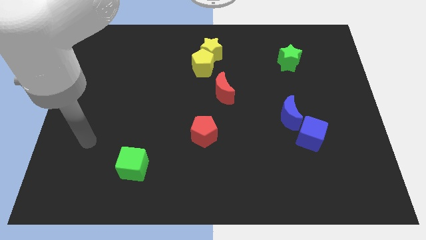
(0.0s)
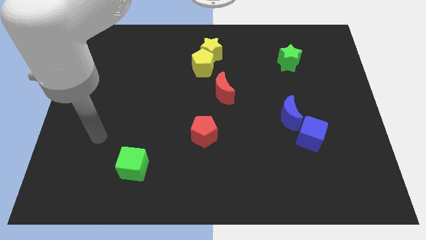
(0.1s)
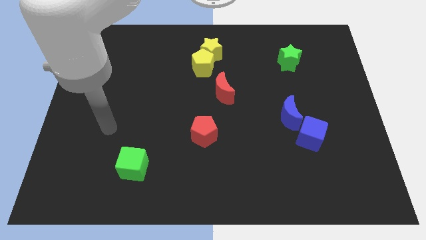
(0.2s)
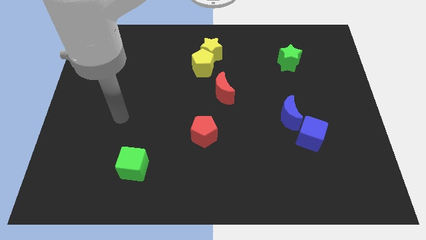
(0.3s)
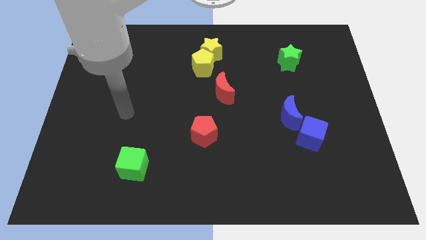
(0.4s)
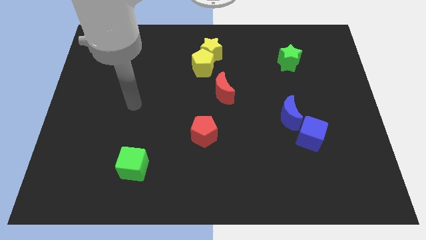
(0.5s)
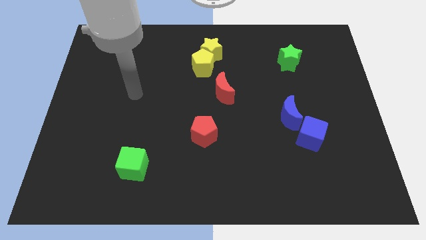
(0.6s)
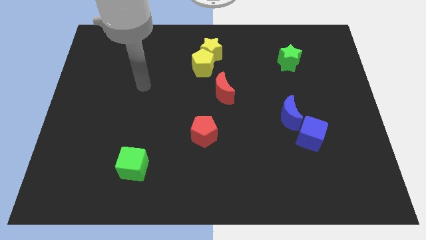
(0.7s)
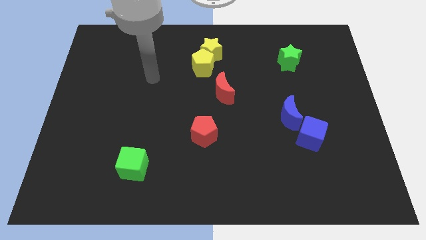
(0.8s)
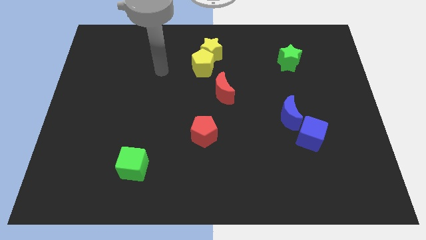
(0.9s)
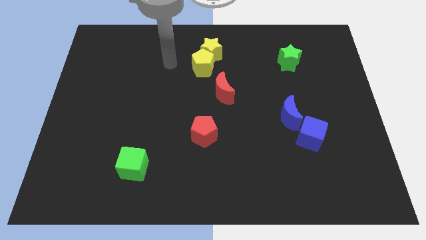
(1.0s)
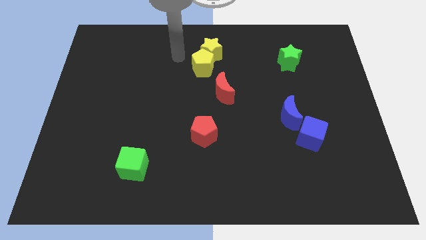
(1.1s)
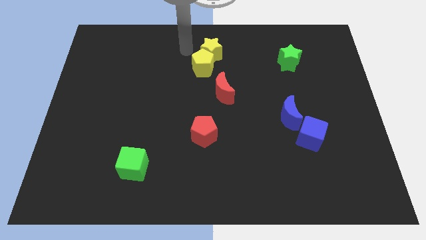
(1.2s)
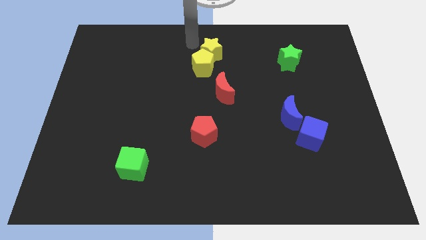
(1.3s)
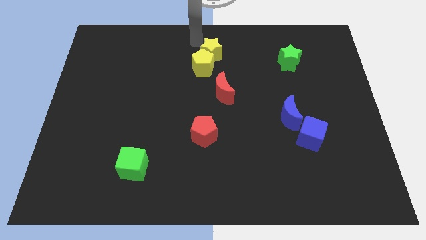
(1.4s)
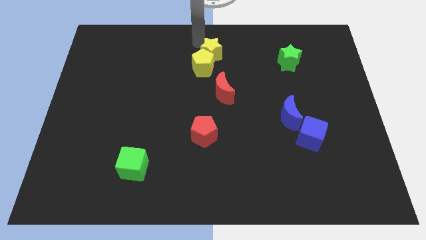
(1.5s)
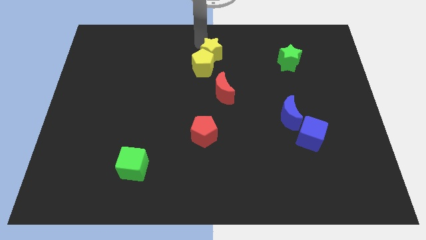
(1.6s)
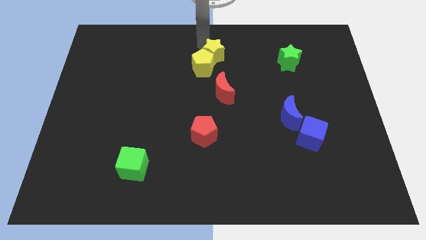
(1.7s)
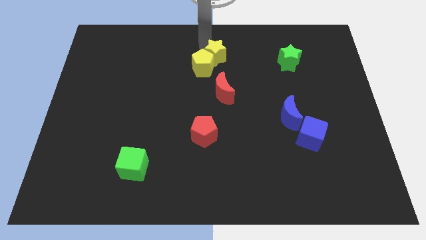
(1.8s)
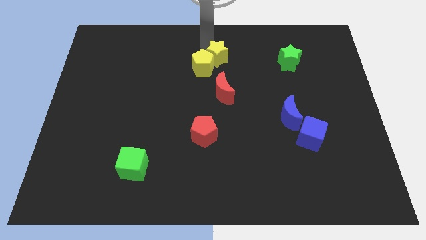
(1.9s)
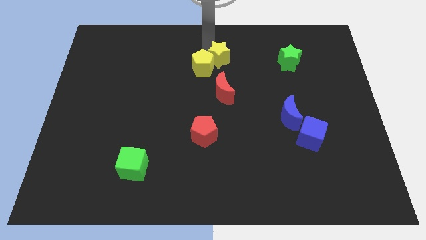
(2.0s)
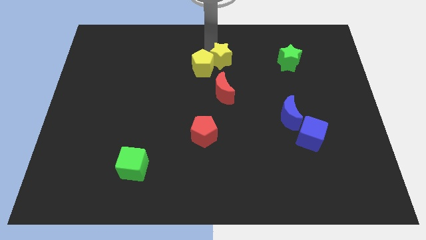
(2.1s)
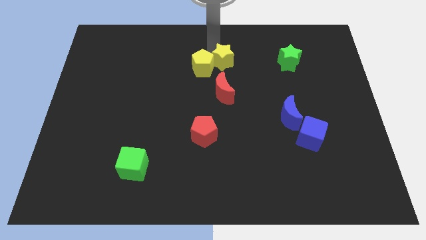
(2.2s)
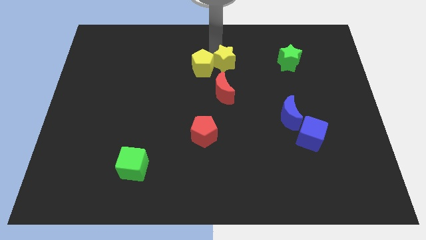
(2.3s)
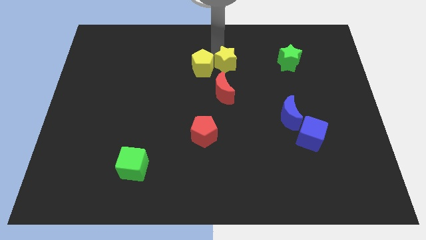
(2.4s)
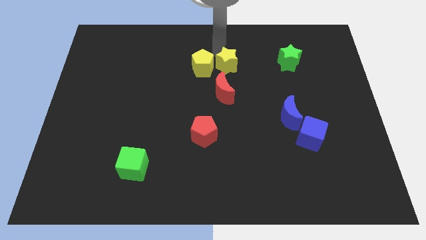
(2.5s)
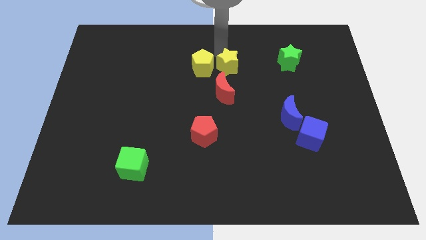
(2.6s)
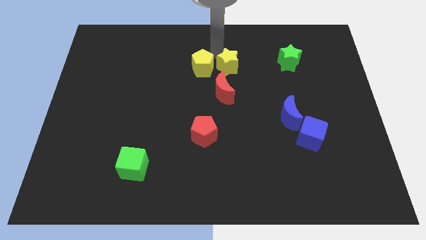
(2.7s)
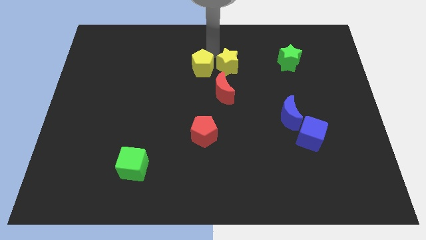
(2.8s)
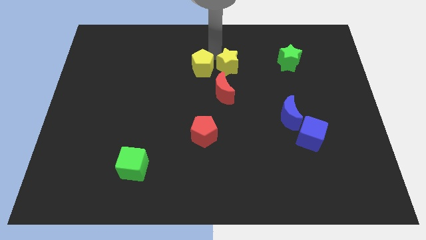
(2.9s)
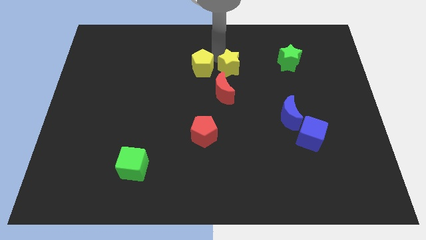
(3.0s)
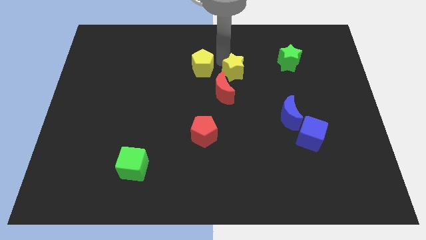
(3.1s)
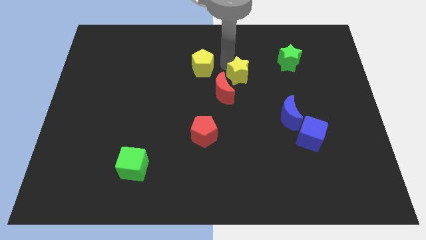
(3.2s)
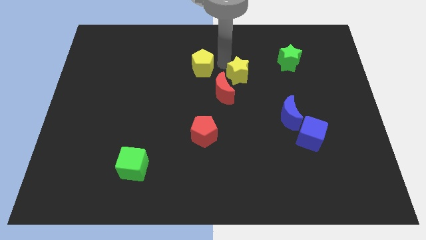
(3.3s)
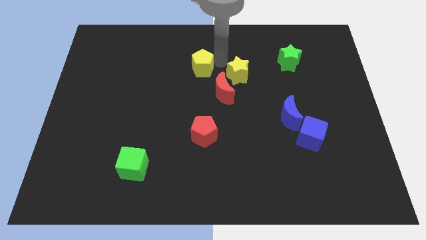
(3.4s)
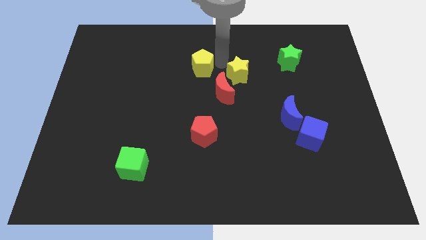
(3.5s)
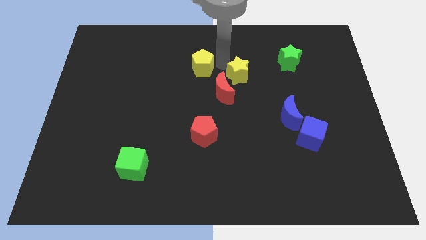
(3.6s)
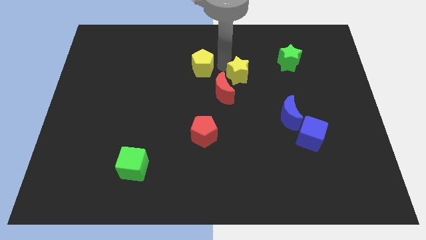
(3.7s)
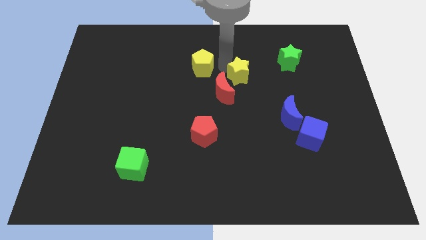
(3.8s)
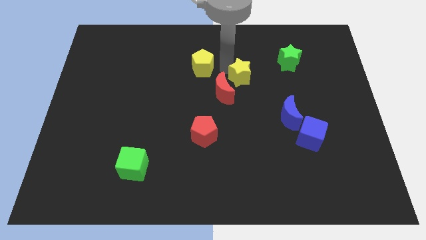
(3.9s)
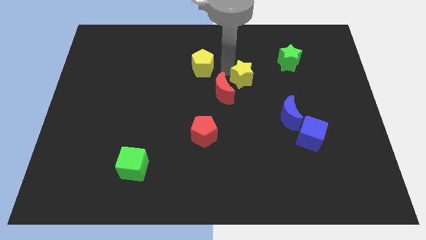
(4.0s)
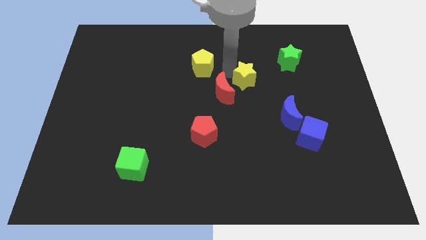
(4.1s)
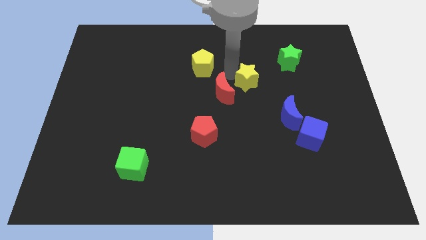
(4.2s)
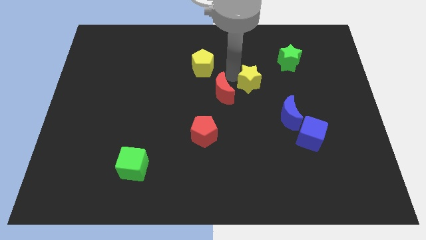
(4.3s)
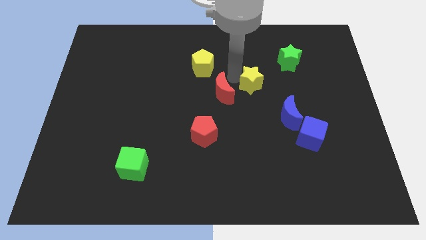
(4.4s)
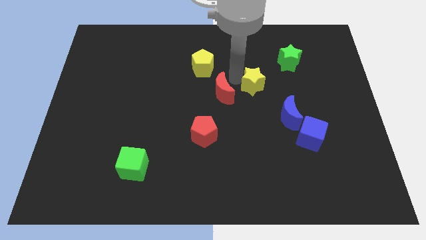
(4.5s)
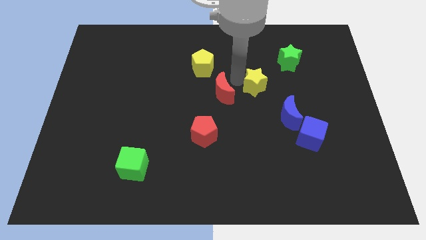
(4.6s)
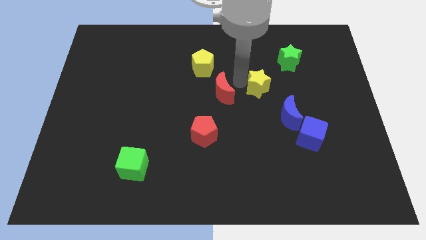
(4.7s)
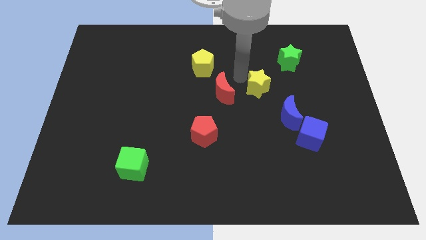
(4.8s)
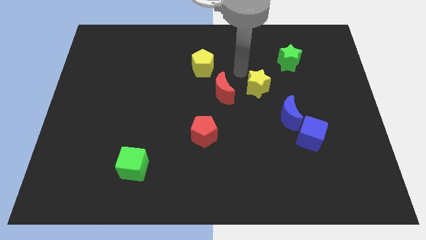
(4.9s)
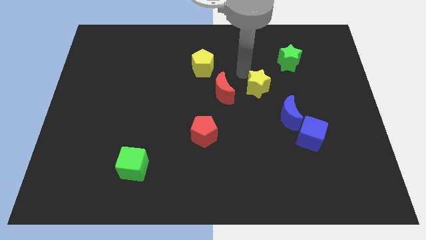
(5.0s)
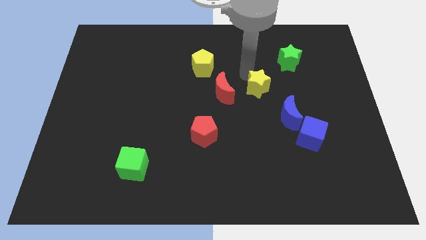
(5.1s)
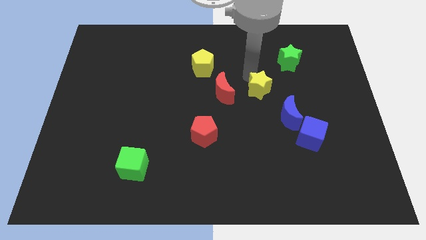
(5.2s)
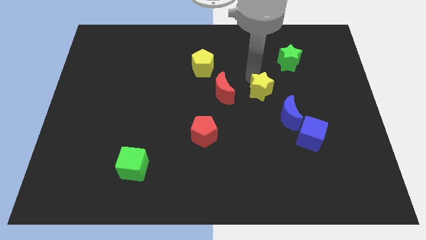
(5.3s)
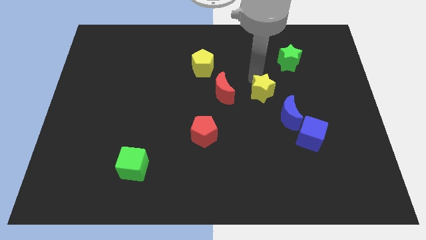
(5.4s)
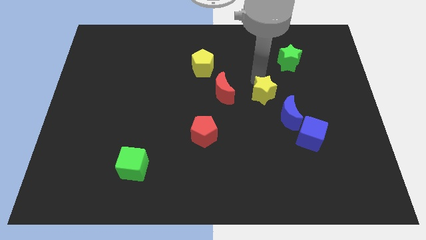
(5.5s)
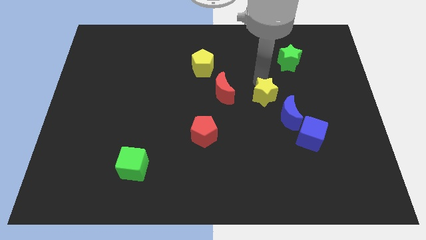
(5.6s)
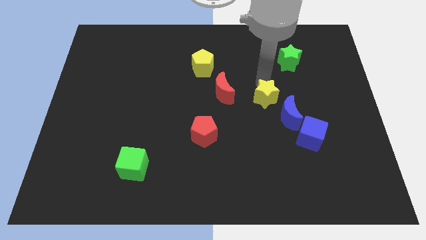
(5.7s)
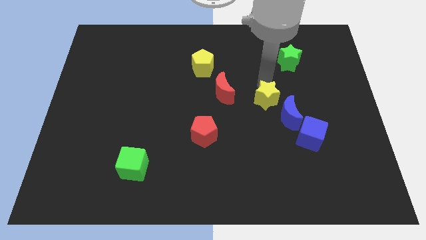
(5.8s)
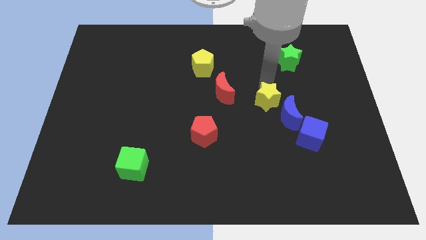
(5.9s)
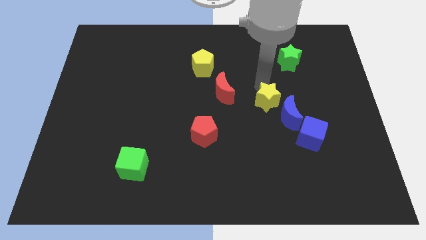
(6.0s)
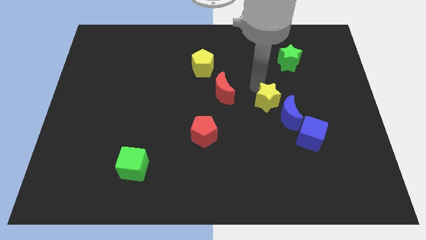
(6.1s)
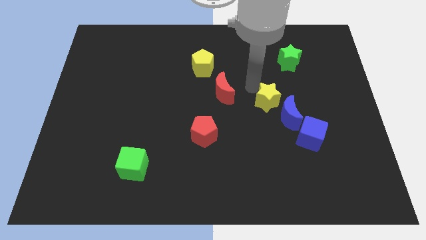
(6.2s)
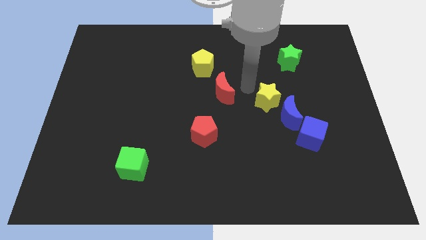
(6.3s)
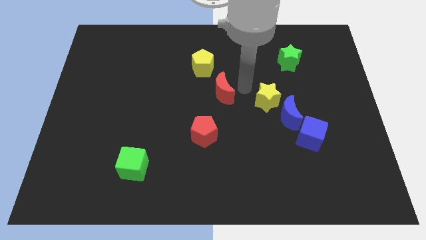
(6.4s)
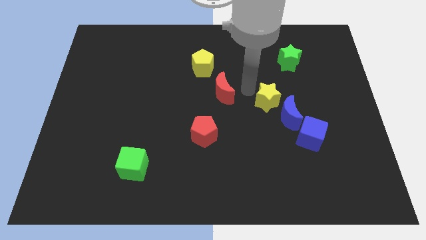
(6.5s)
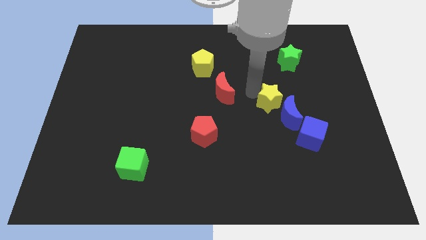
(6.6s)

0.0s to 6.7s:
push the yellow star close to the blue moon
